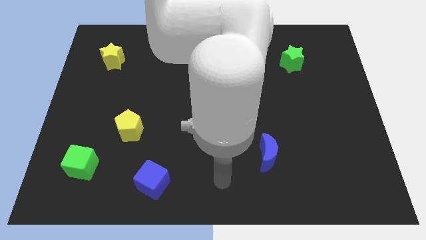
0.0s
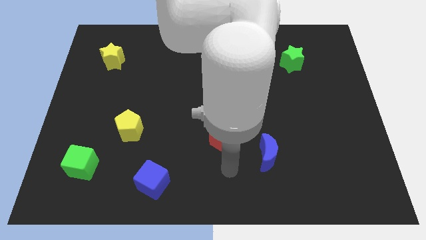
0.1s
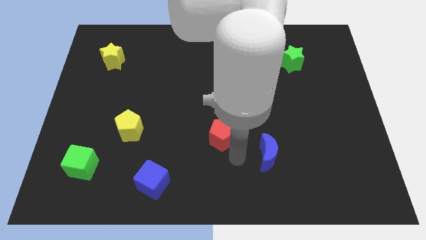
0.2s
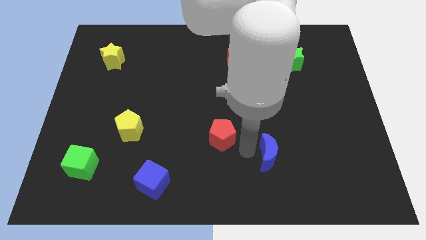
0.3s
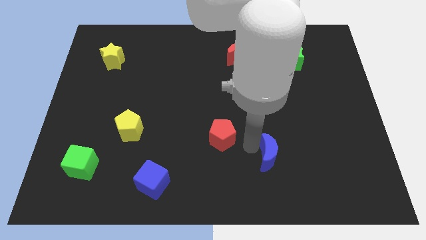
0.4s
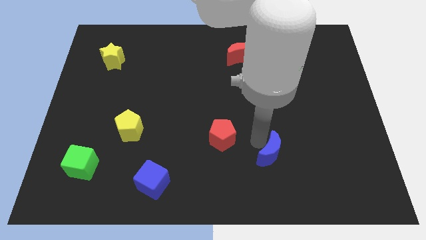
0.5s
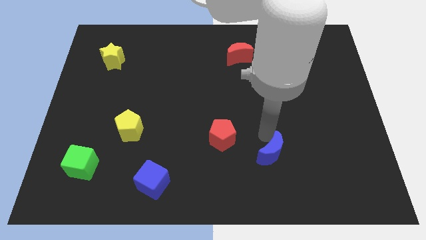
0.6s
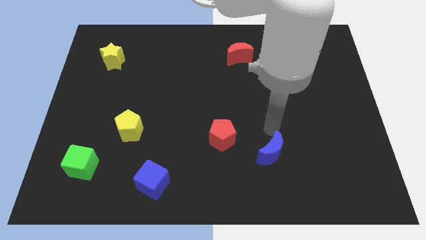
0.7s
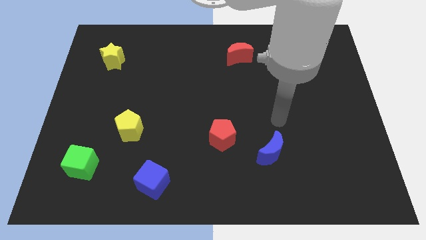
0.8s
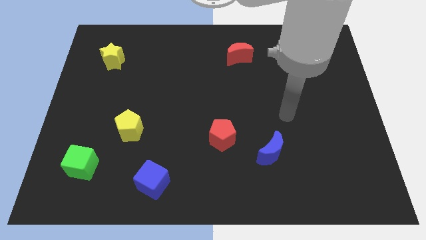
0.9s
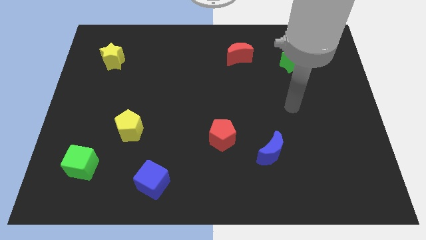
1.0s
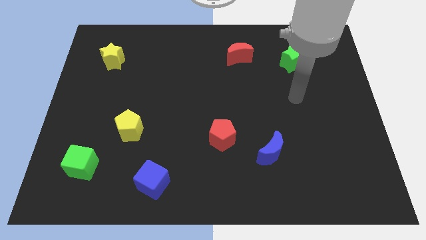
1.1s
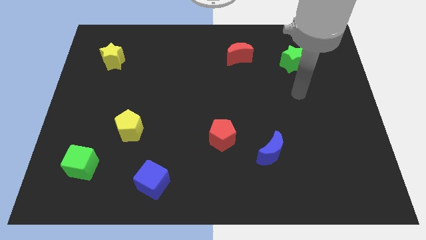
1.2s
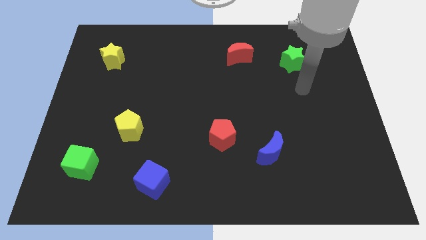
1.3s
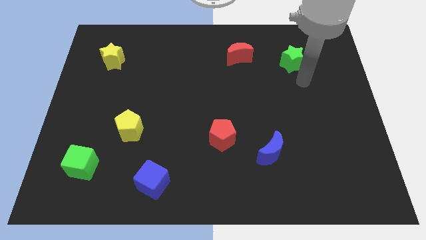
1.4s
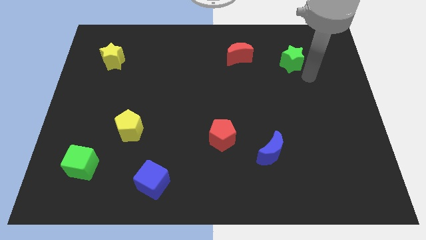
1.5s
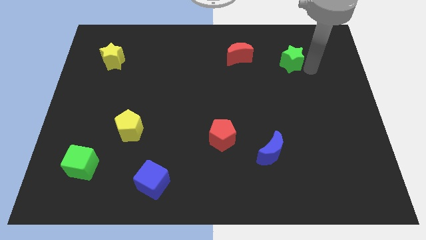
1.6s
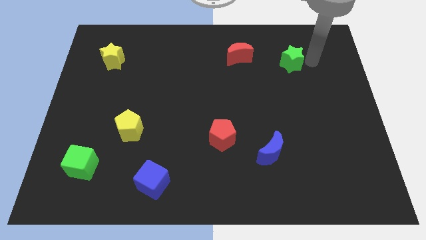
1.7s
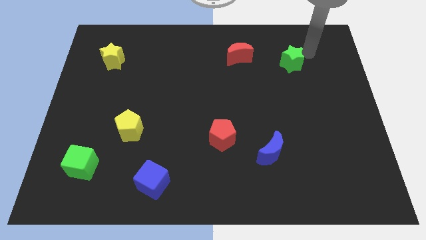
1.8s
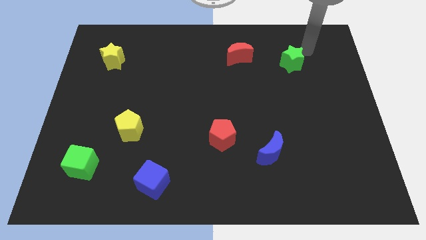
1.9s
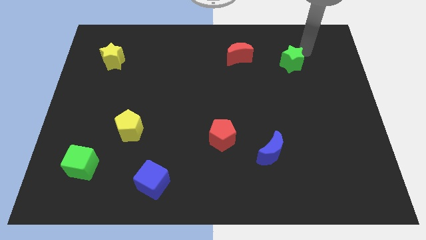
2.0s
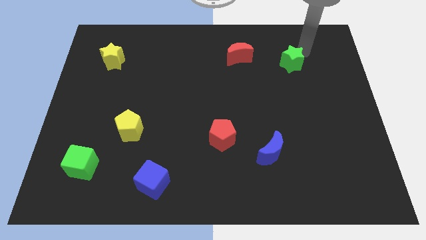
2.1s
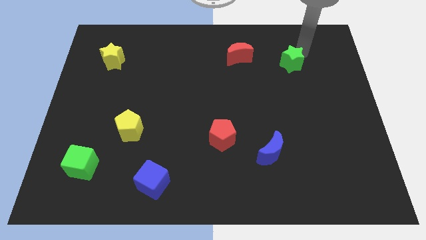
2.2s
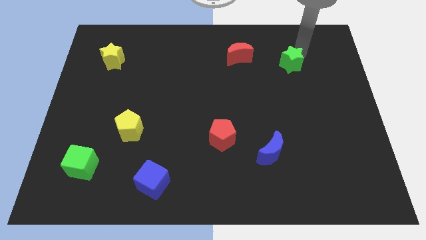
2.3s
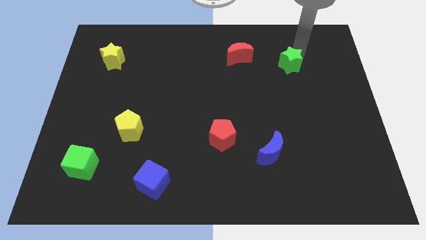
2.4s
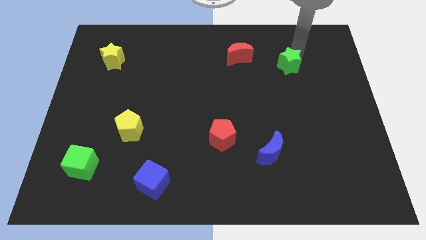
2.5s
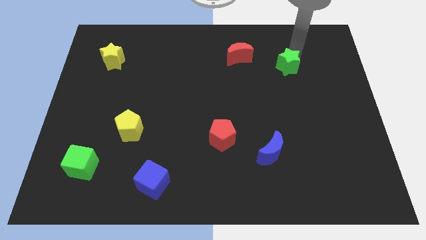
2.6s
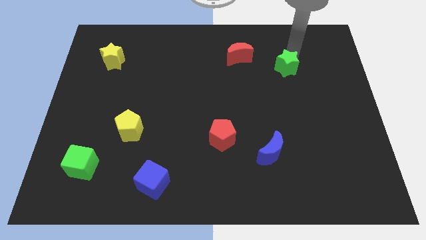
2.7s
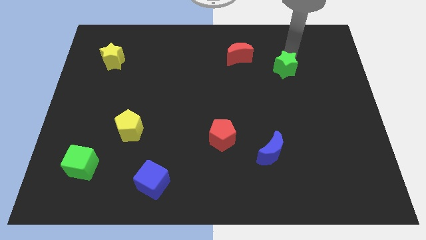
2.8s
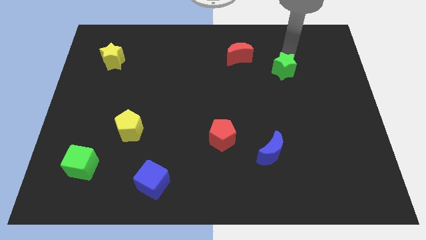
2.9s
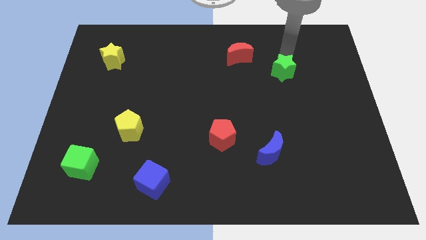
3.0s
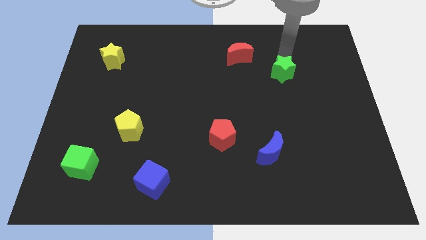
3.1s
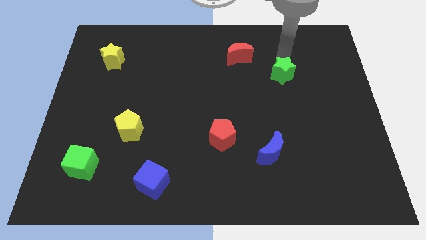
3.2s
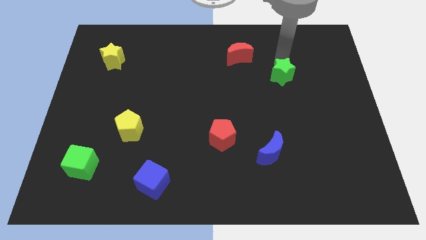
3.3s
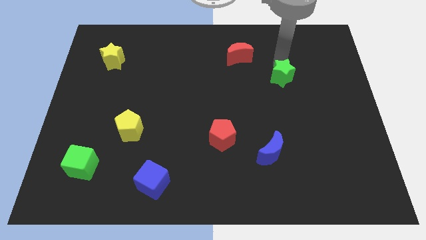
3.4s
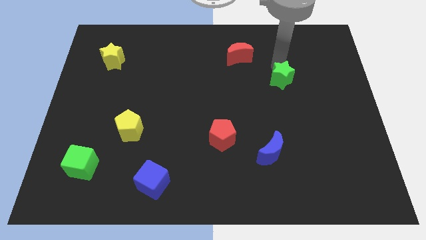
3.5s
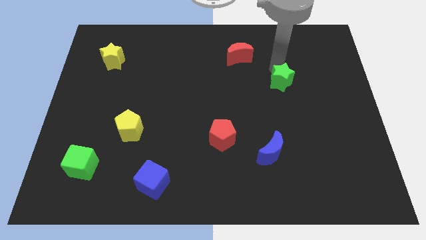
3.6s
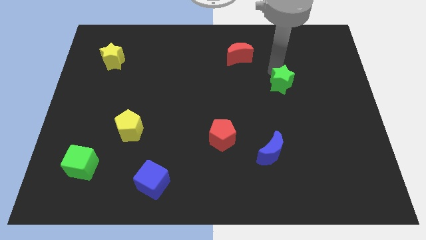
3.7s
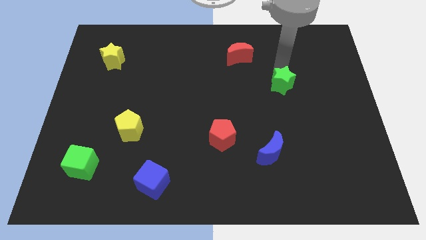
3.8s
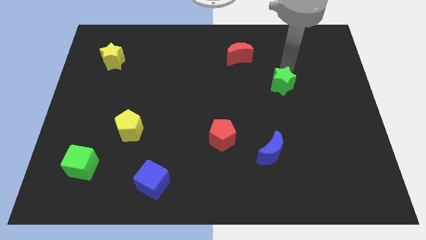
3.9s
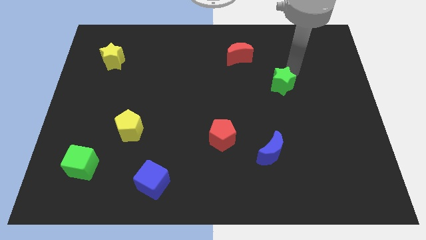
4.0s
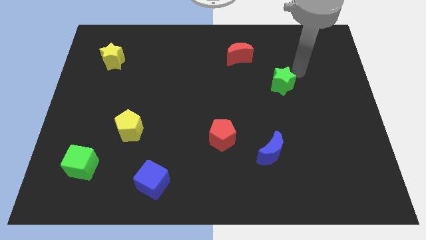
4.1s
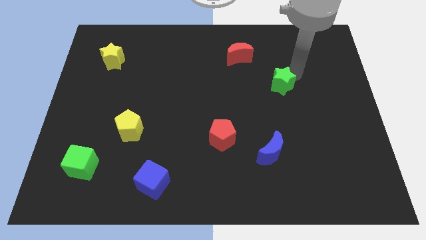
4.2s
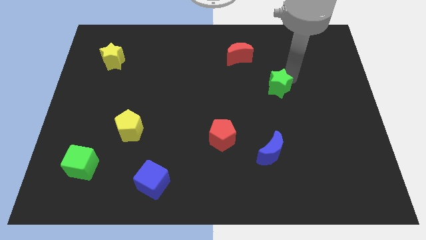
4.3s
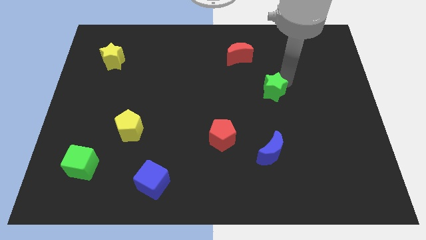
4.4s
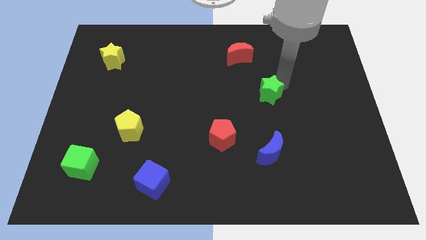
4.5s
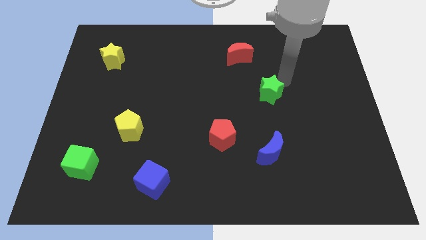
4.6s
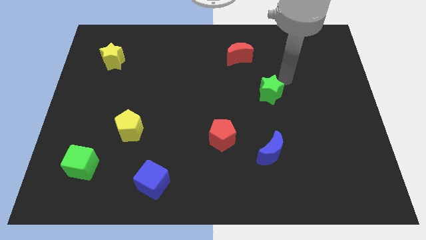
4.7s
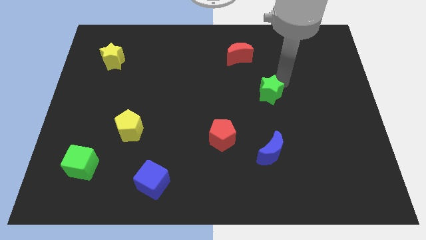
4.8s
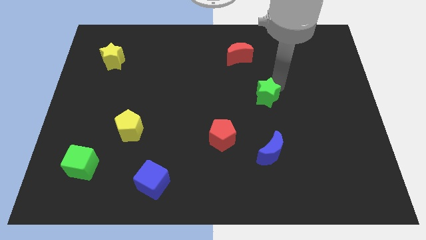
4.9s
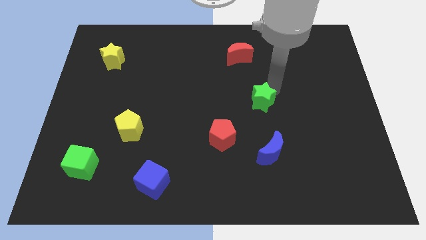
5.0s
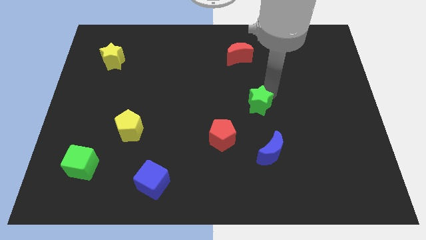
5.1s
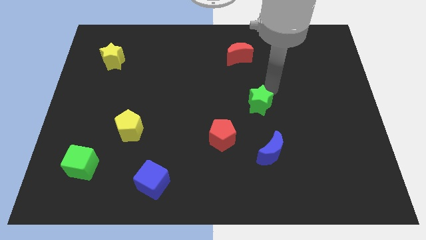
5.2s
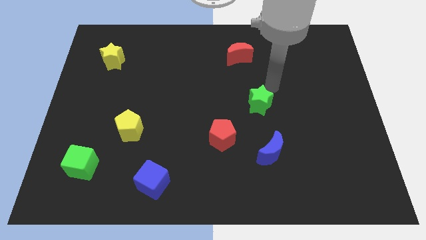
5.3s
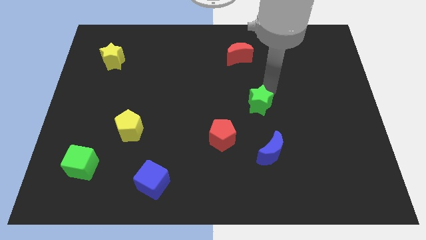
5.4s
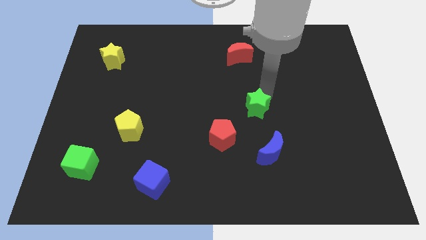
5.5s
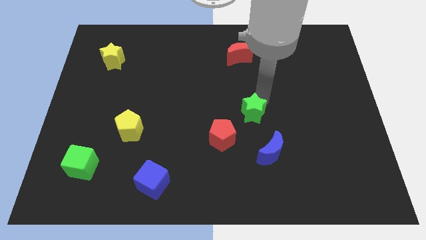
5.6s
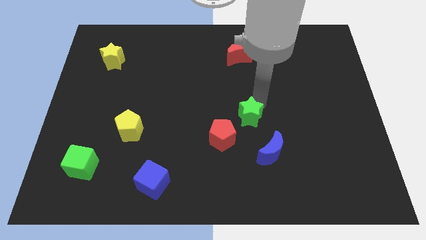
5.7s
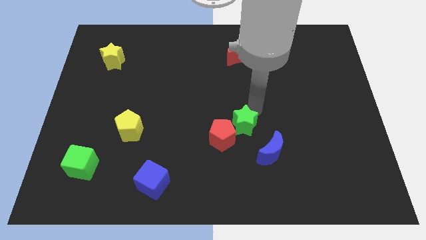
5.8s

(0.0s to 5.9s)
slide the green star towards the red pentagon
